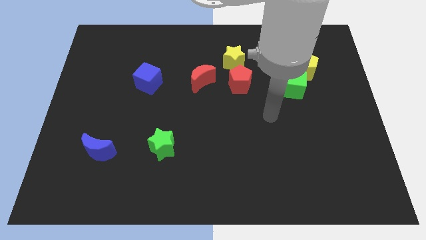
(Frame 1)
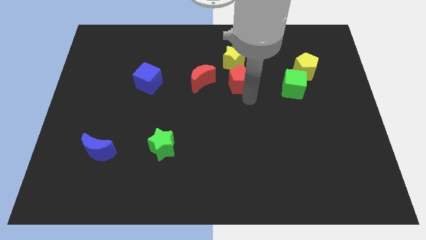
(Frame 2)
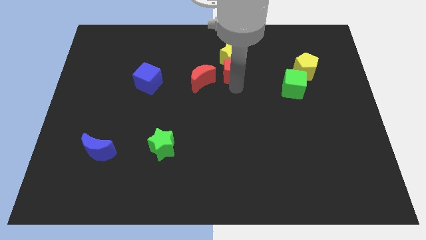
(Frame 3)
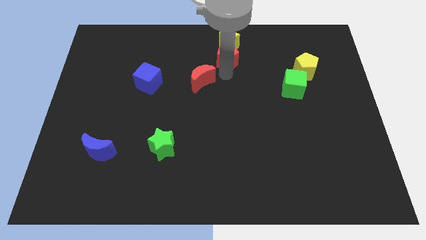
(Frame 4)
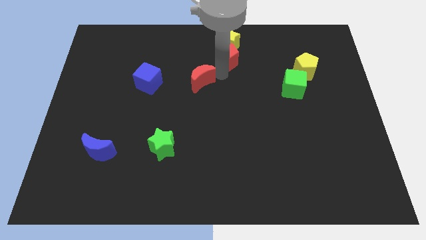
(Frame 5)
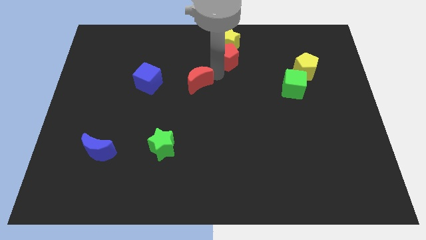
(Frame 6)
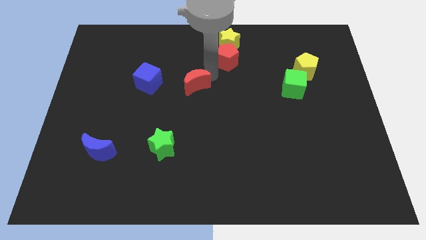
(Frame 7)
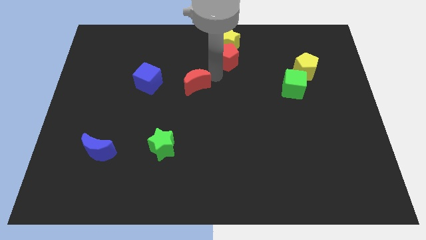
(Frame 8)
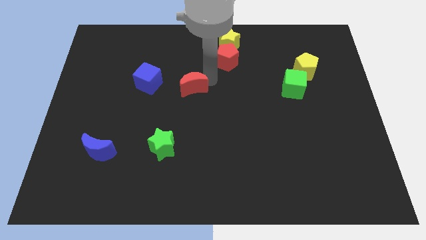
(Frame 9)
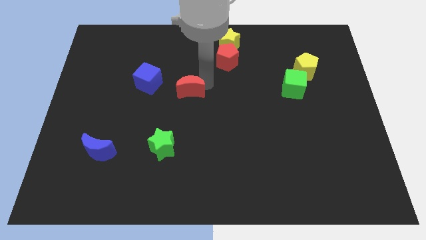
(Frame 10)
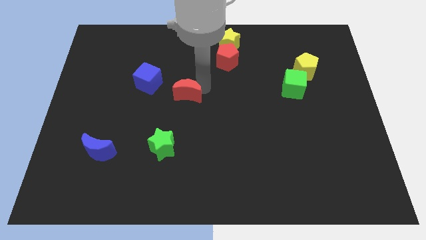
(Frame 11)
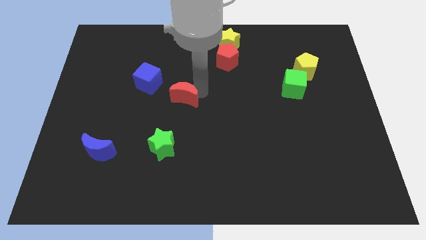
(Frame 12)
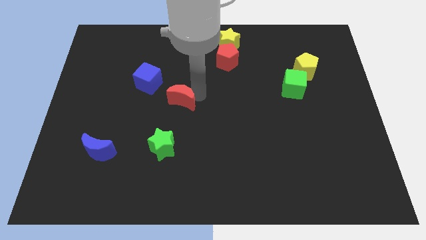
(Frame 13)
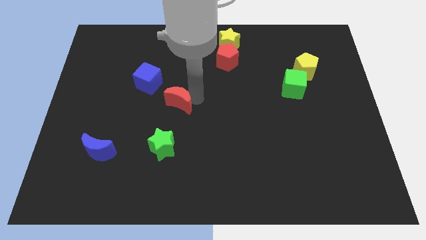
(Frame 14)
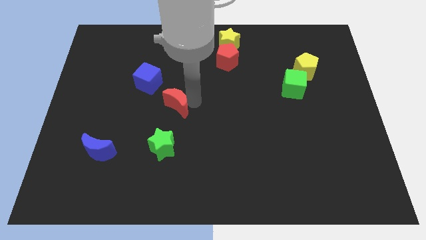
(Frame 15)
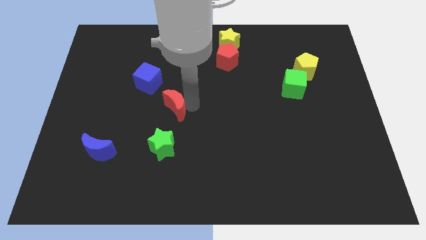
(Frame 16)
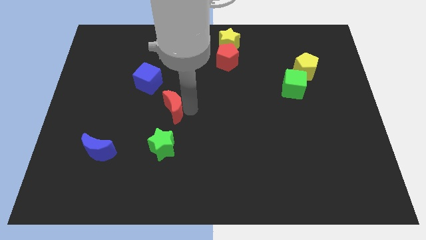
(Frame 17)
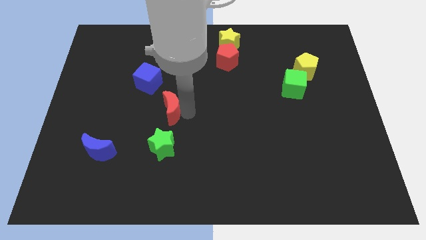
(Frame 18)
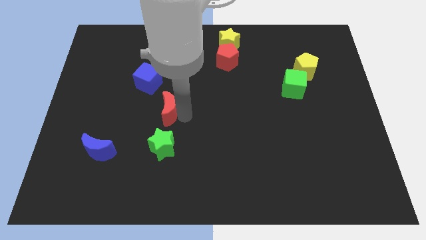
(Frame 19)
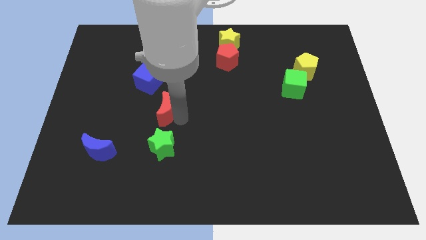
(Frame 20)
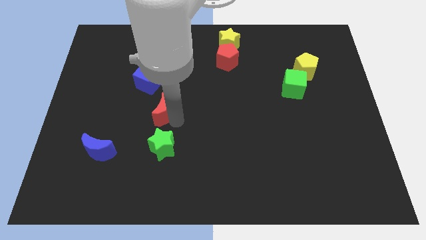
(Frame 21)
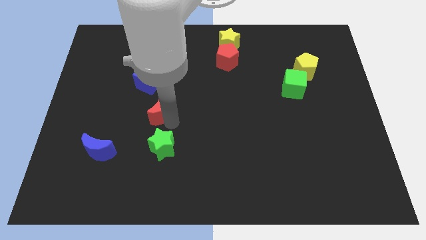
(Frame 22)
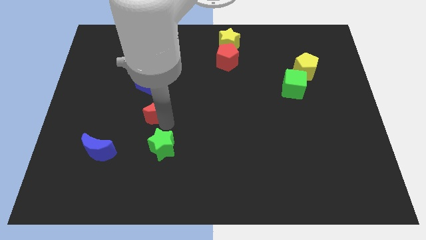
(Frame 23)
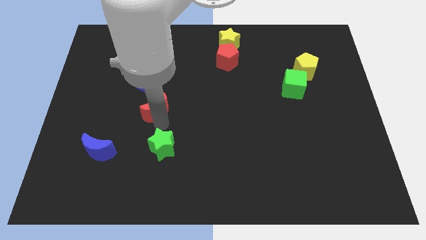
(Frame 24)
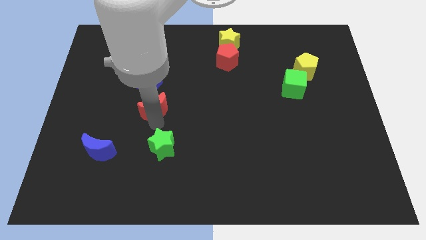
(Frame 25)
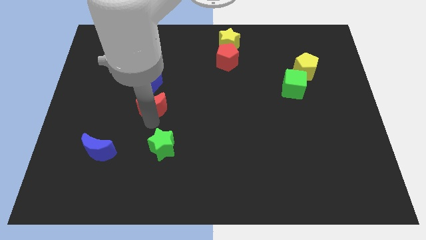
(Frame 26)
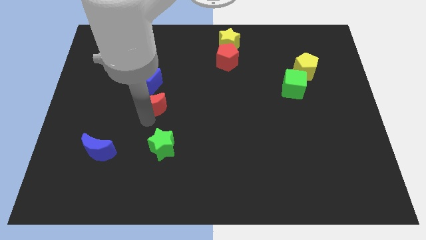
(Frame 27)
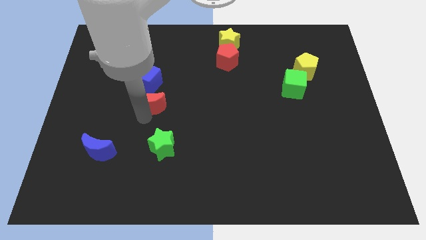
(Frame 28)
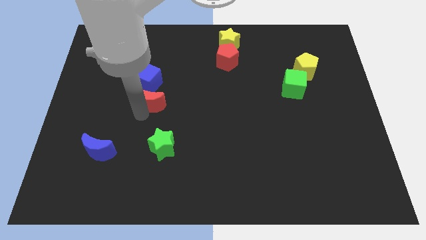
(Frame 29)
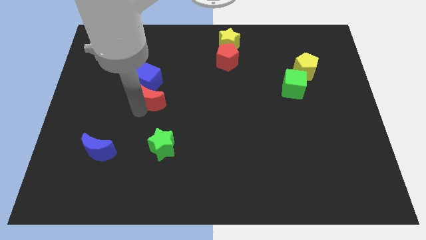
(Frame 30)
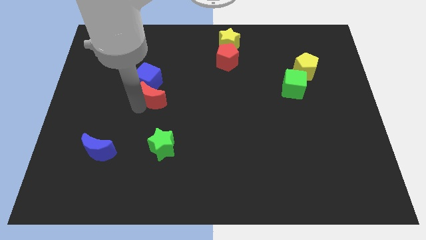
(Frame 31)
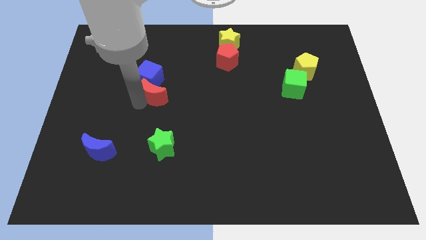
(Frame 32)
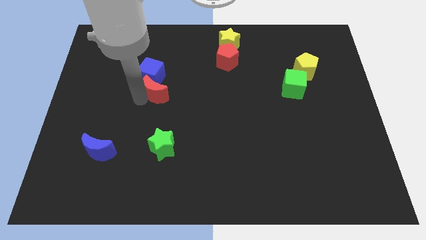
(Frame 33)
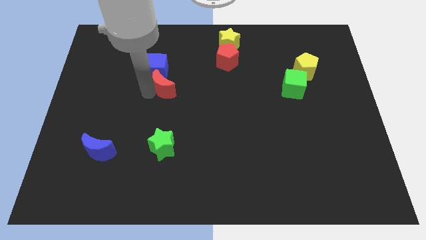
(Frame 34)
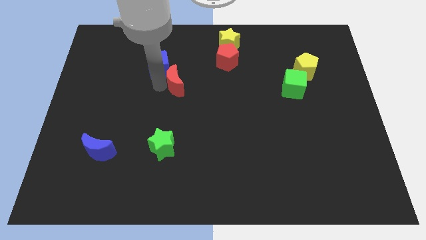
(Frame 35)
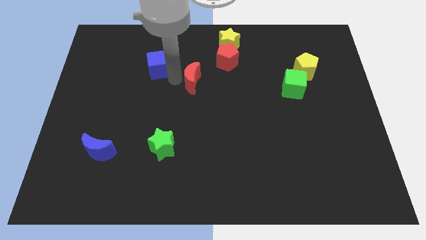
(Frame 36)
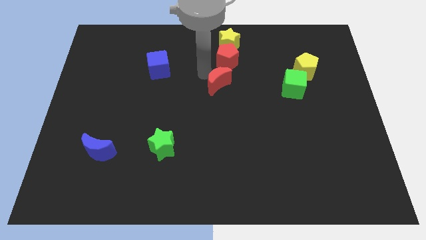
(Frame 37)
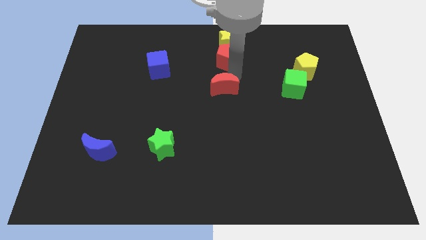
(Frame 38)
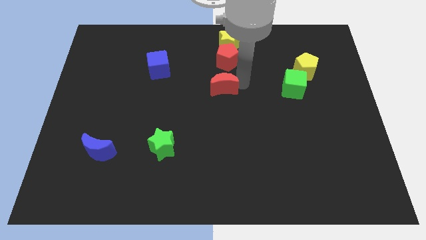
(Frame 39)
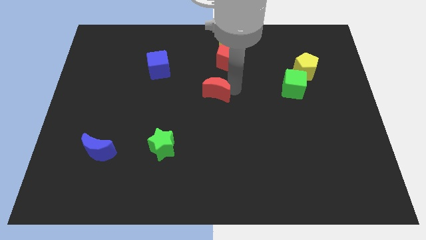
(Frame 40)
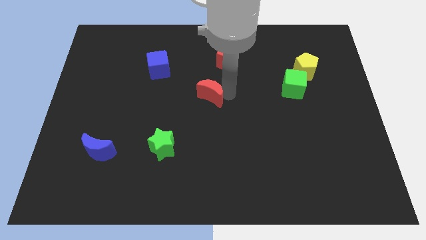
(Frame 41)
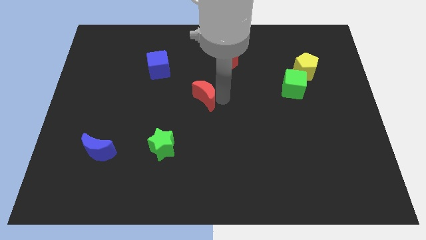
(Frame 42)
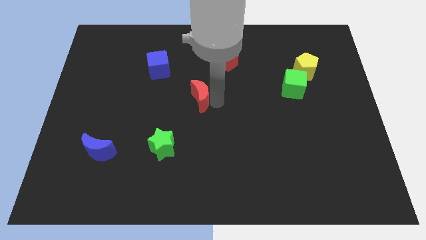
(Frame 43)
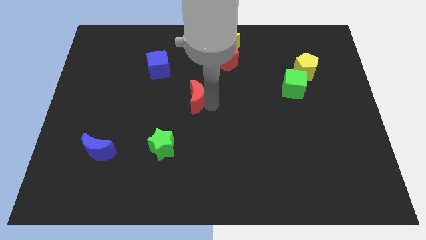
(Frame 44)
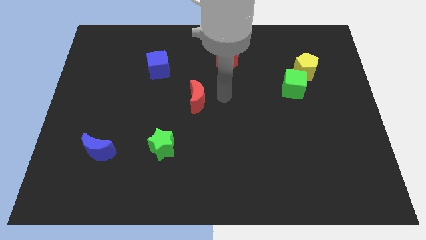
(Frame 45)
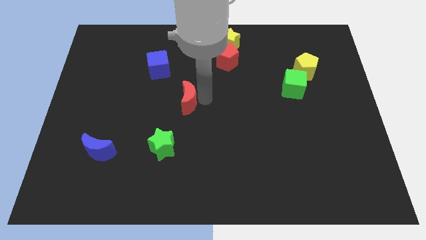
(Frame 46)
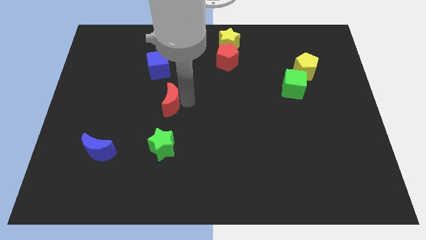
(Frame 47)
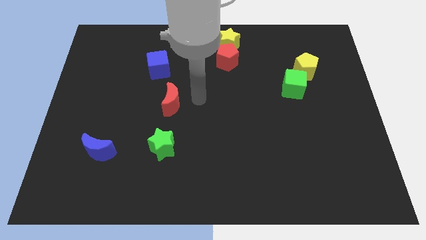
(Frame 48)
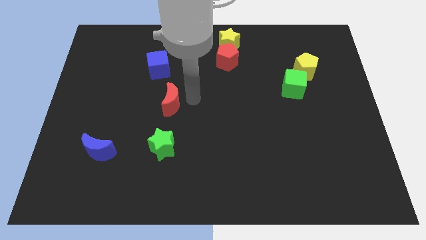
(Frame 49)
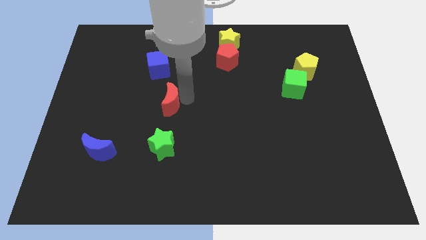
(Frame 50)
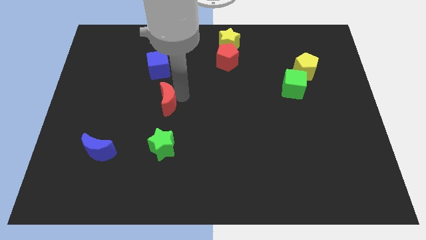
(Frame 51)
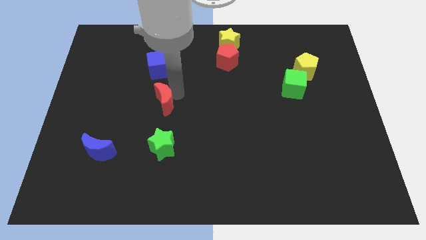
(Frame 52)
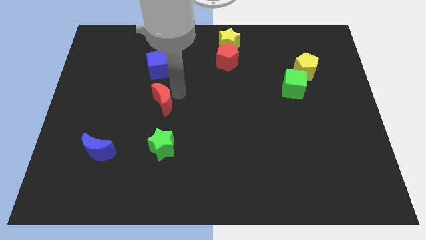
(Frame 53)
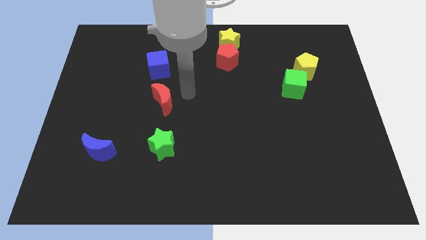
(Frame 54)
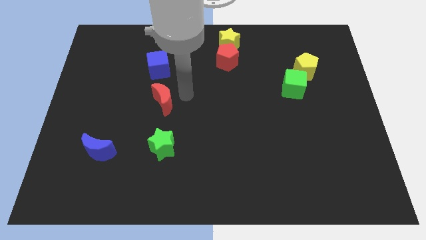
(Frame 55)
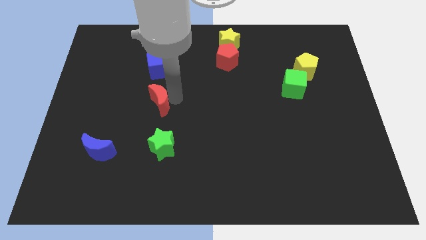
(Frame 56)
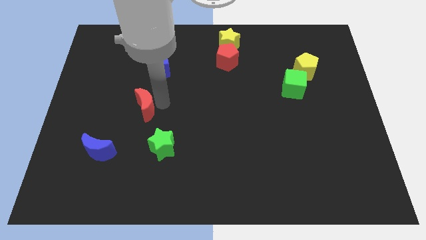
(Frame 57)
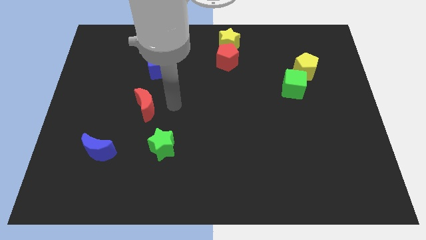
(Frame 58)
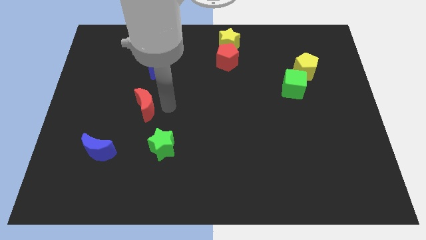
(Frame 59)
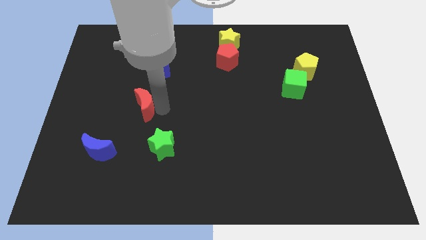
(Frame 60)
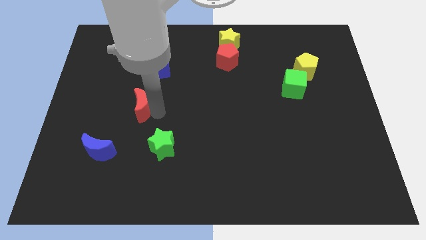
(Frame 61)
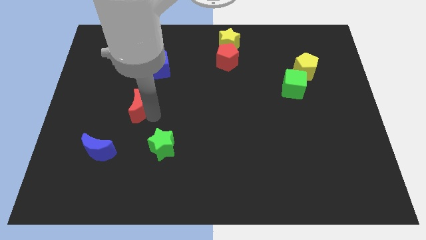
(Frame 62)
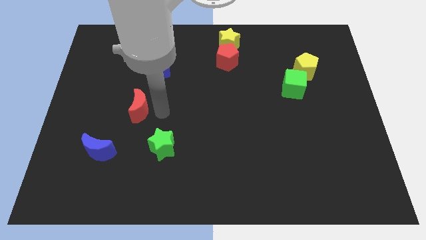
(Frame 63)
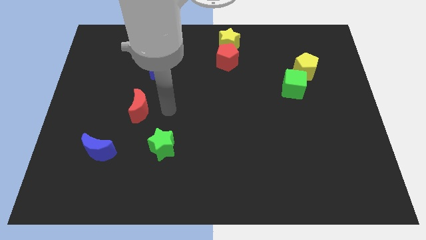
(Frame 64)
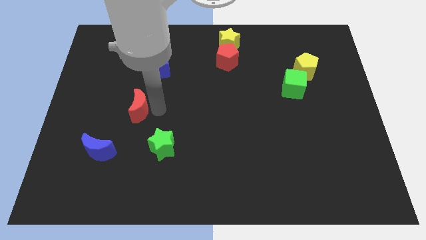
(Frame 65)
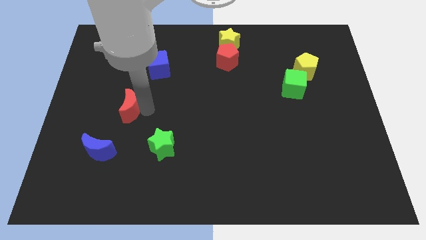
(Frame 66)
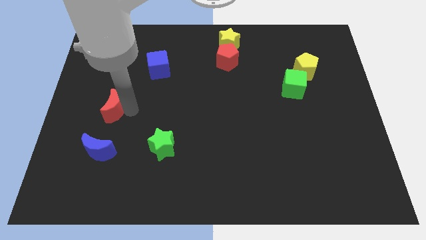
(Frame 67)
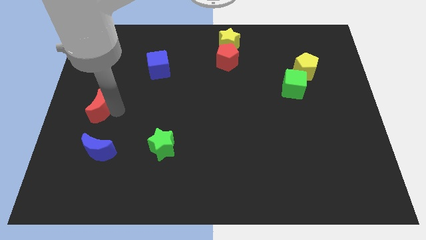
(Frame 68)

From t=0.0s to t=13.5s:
move the red moon to the left side

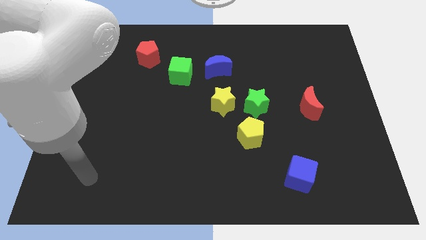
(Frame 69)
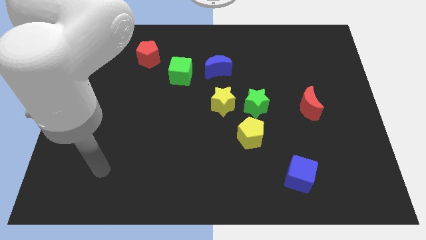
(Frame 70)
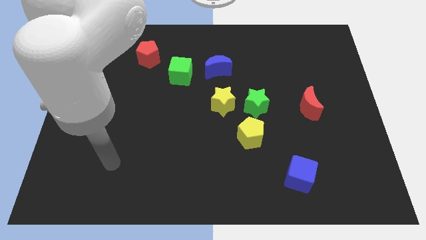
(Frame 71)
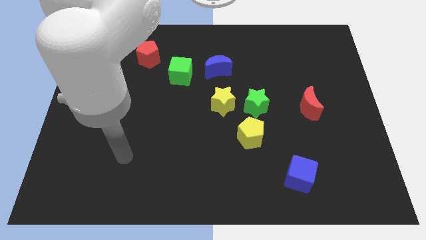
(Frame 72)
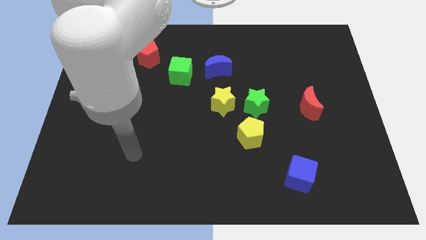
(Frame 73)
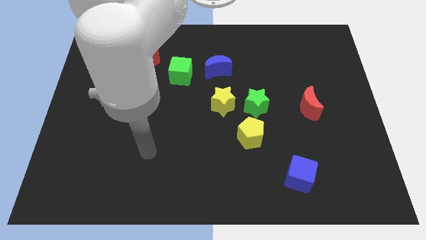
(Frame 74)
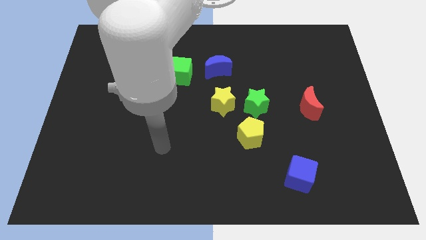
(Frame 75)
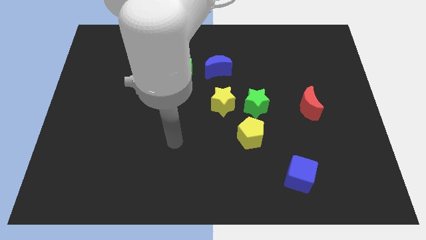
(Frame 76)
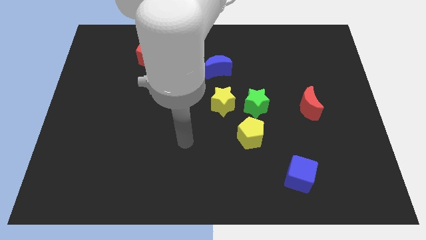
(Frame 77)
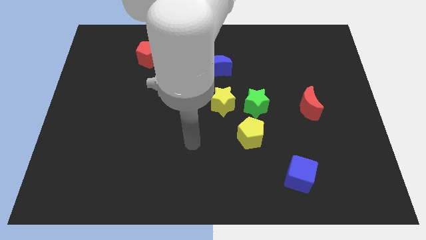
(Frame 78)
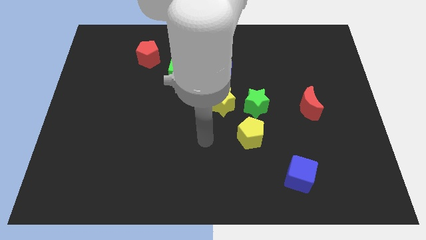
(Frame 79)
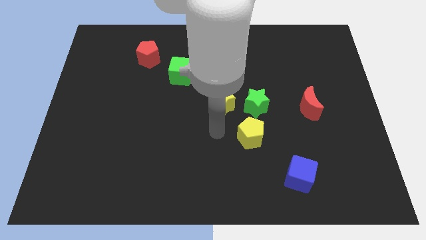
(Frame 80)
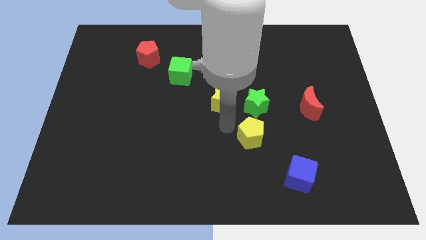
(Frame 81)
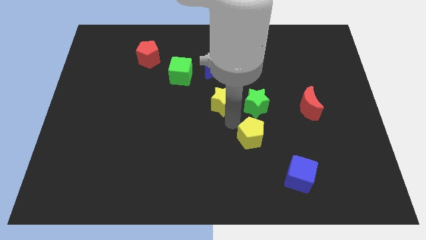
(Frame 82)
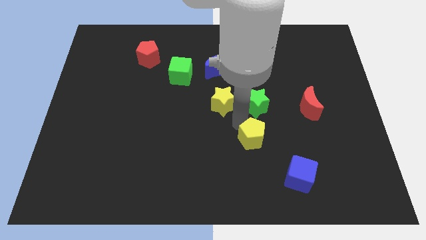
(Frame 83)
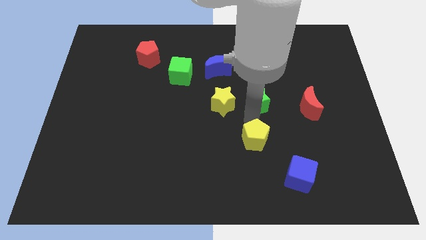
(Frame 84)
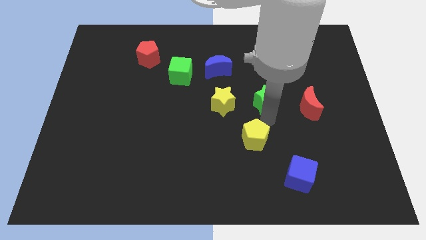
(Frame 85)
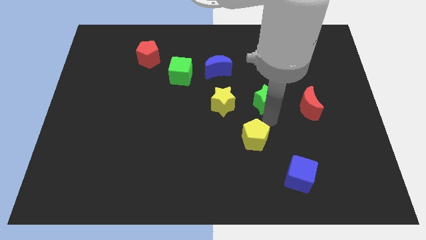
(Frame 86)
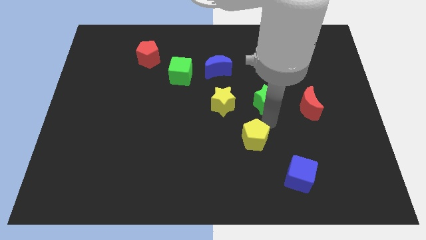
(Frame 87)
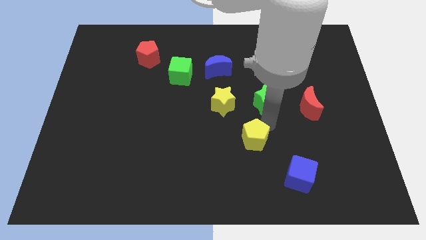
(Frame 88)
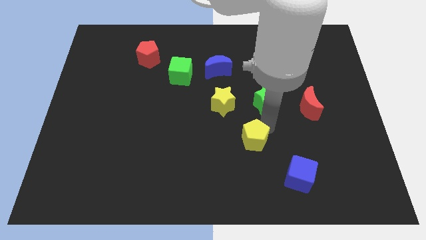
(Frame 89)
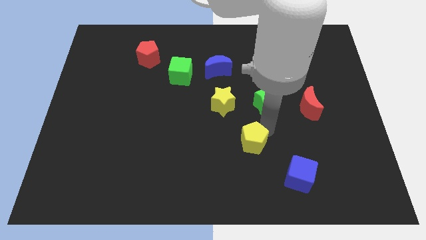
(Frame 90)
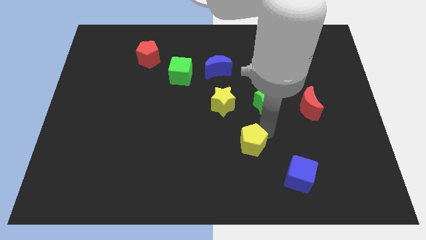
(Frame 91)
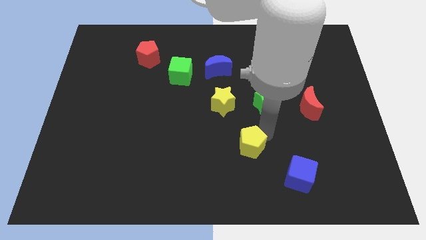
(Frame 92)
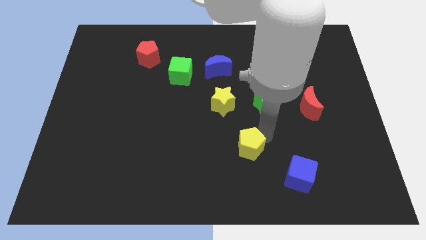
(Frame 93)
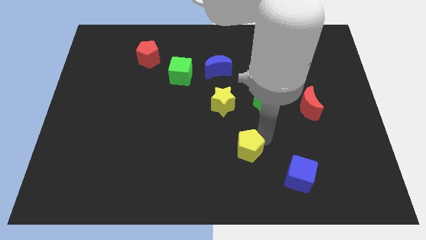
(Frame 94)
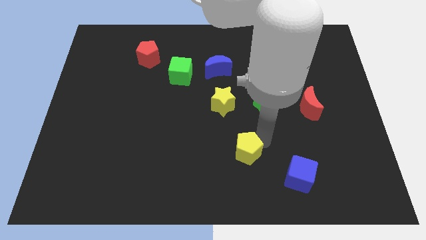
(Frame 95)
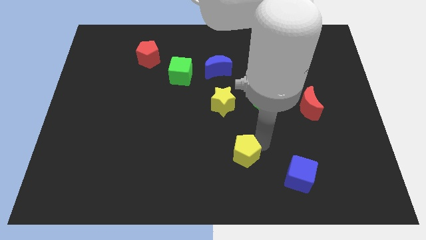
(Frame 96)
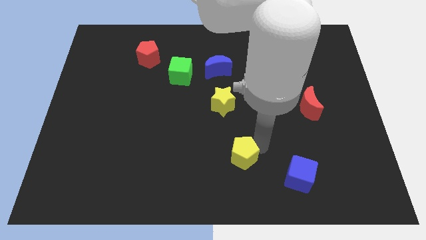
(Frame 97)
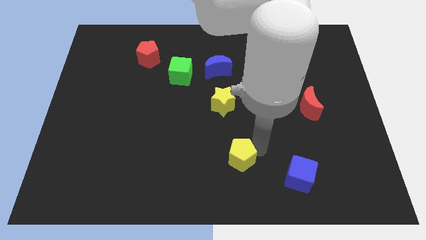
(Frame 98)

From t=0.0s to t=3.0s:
move the yellow pentagon to the bottom side
